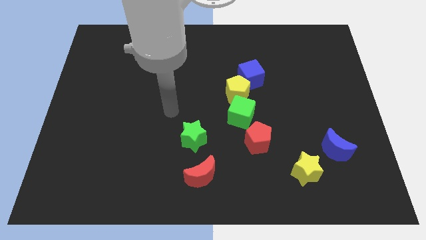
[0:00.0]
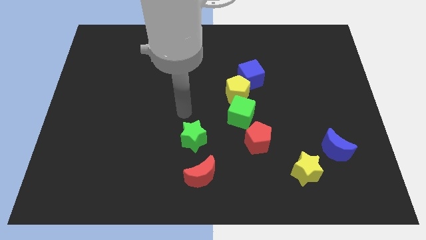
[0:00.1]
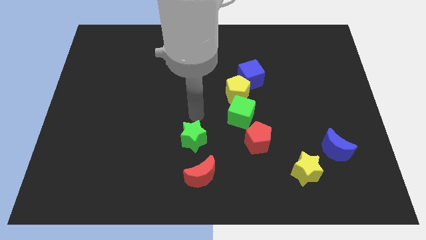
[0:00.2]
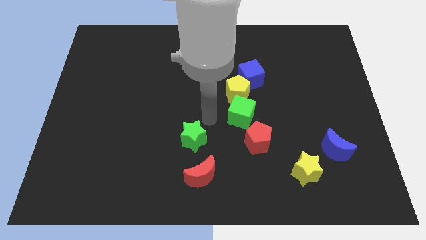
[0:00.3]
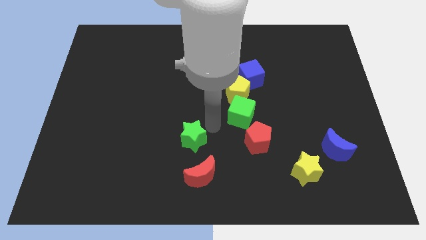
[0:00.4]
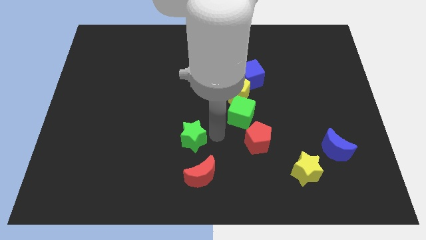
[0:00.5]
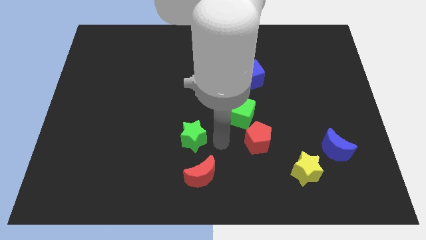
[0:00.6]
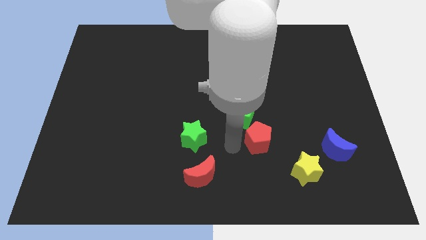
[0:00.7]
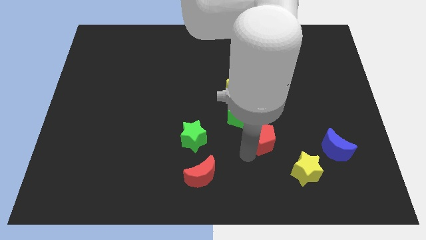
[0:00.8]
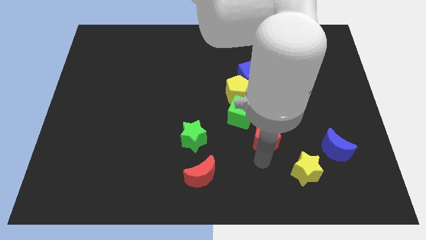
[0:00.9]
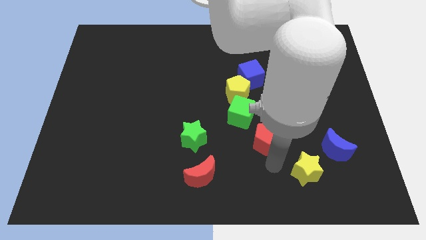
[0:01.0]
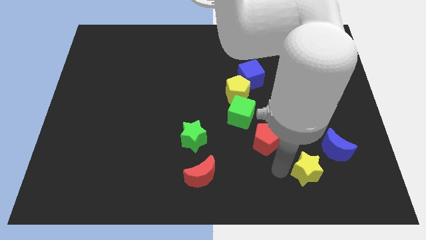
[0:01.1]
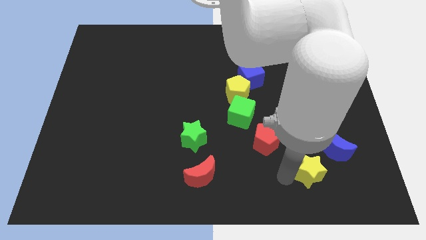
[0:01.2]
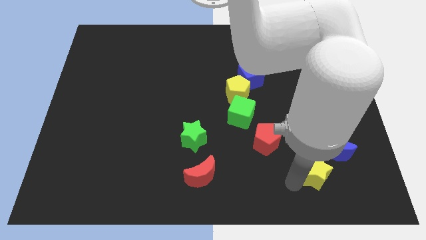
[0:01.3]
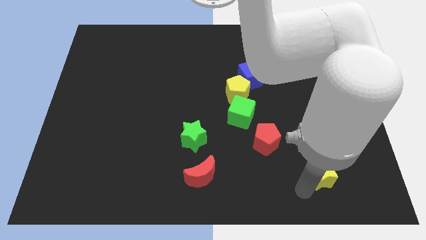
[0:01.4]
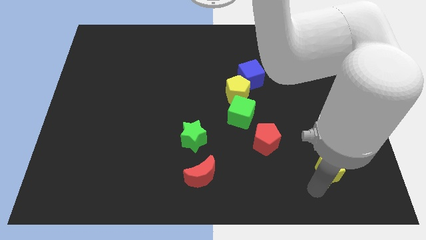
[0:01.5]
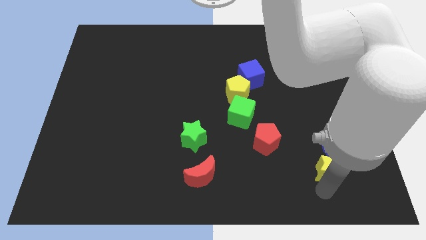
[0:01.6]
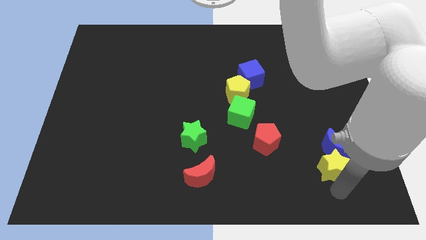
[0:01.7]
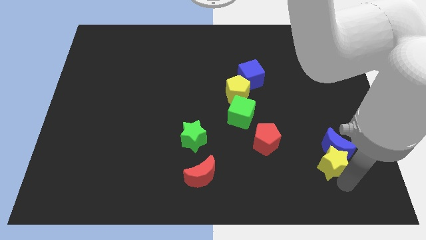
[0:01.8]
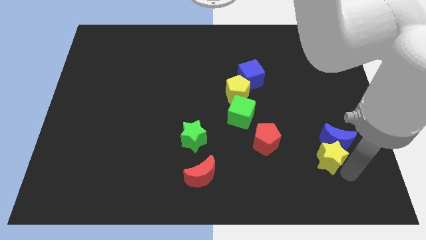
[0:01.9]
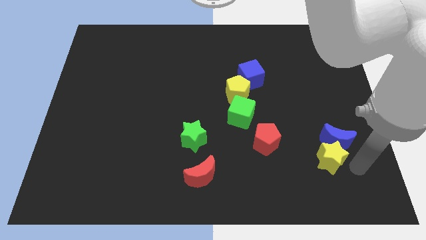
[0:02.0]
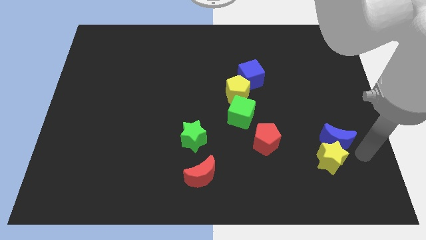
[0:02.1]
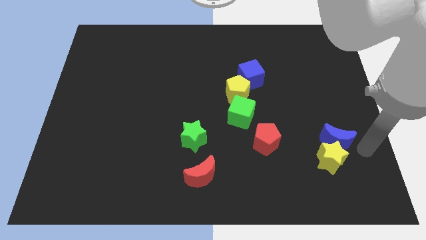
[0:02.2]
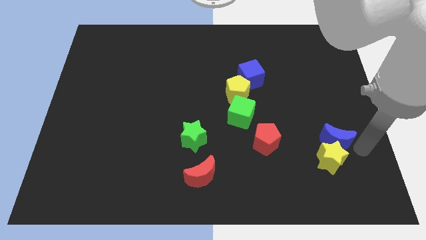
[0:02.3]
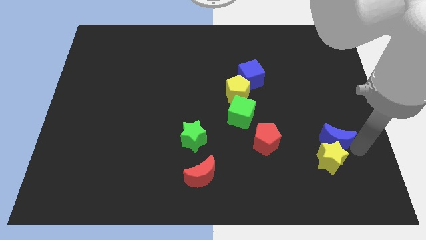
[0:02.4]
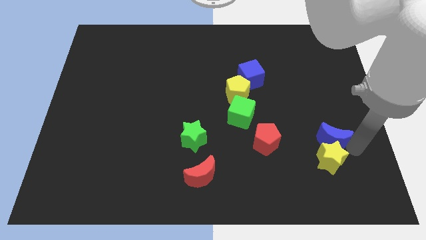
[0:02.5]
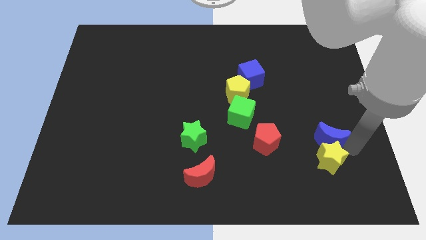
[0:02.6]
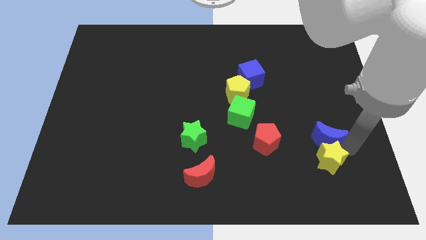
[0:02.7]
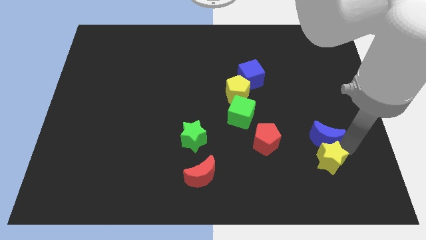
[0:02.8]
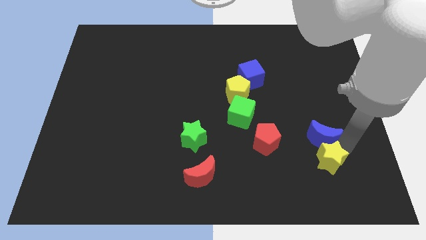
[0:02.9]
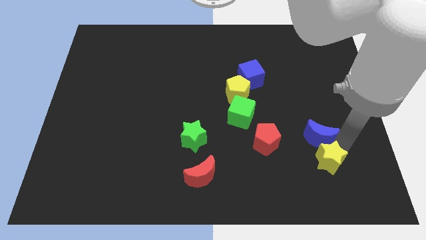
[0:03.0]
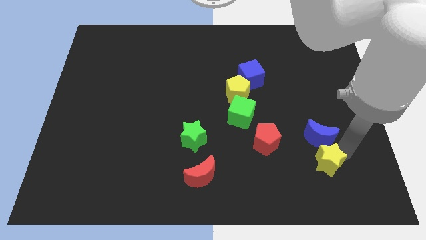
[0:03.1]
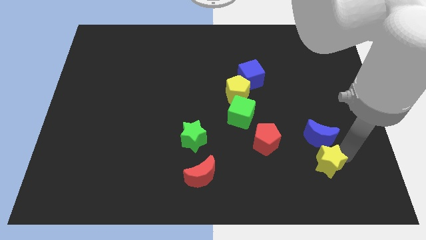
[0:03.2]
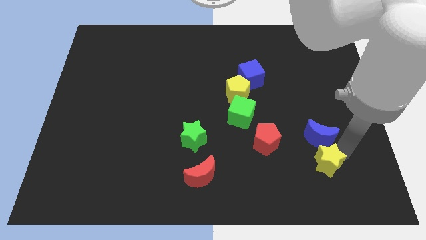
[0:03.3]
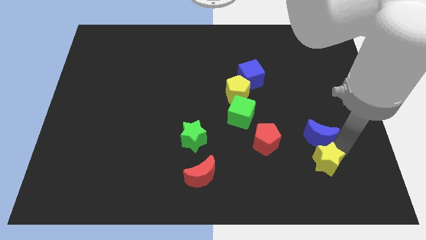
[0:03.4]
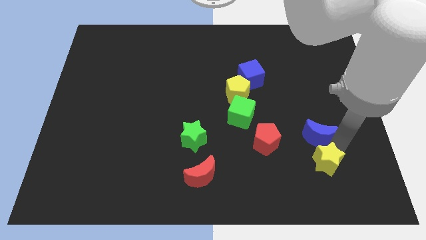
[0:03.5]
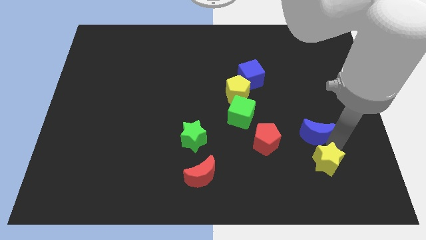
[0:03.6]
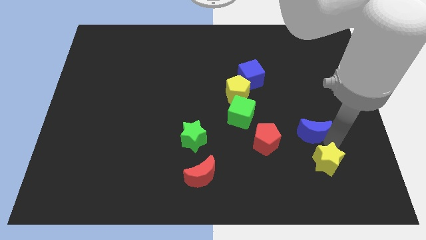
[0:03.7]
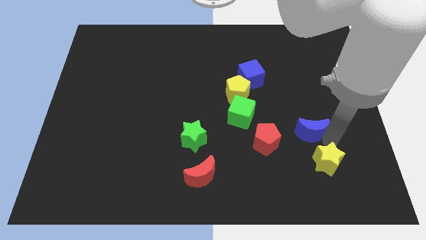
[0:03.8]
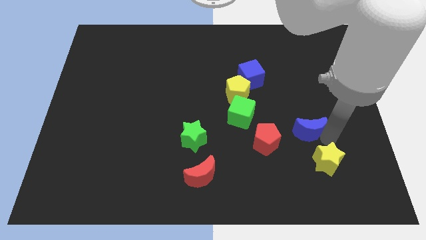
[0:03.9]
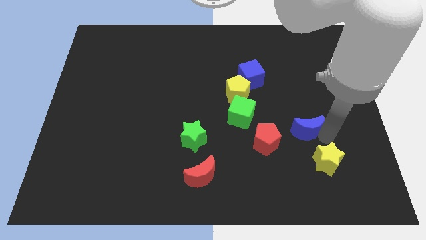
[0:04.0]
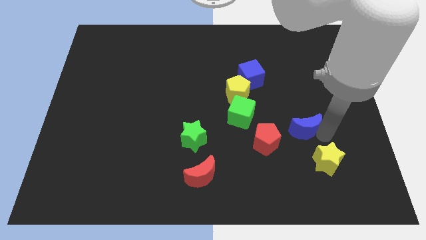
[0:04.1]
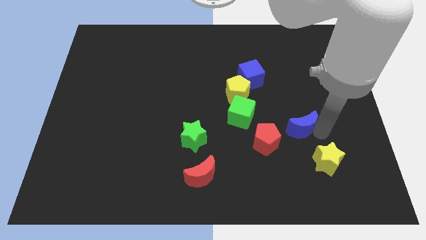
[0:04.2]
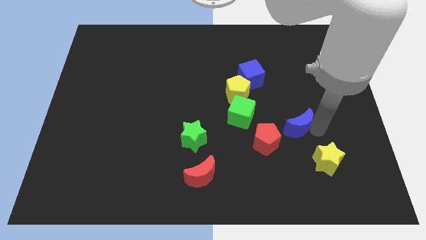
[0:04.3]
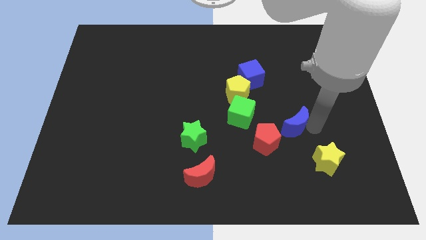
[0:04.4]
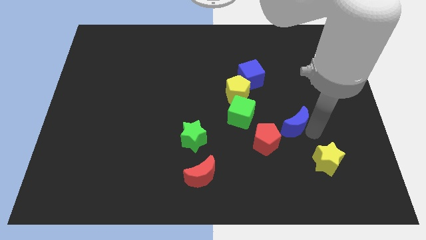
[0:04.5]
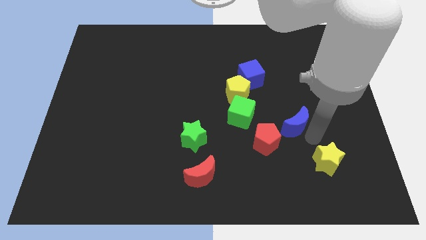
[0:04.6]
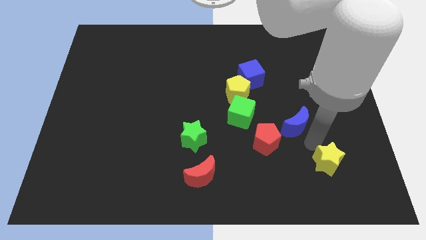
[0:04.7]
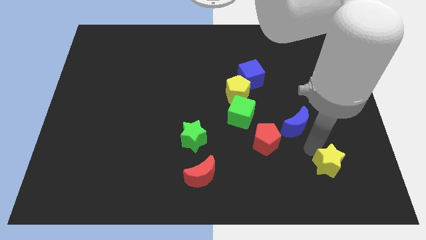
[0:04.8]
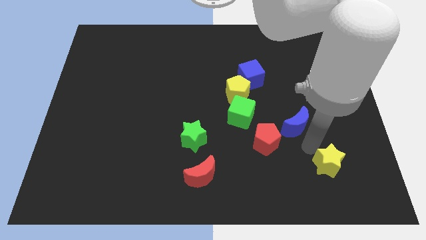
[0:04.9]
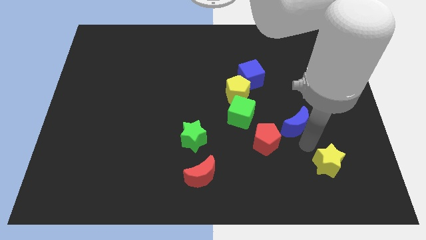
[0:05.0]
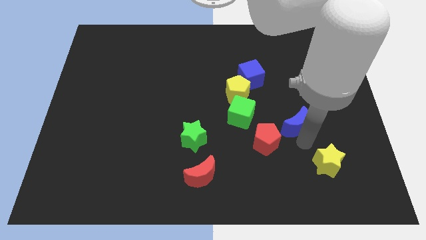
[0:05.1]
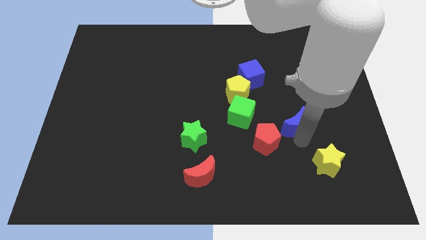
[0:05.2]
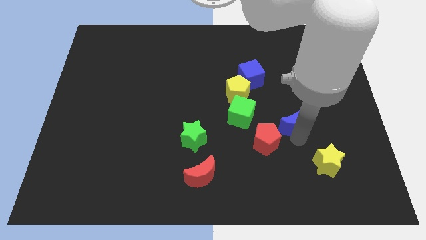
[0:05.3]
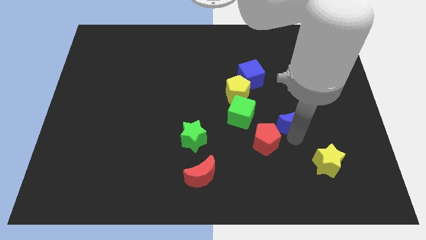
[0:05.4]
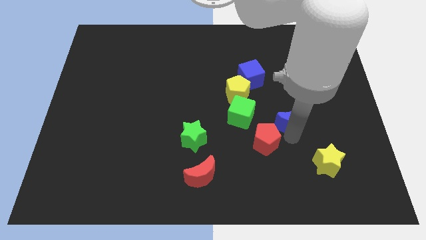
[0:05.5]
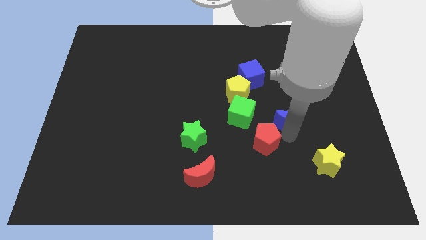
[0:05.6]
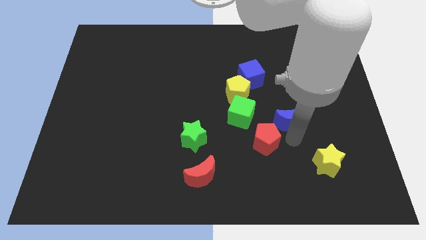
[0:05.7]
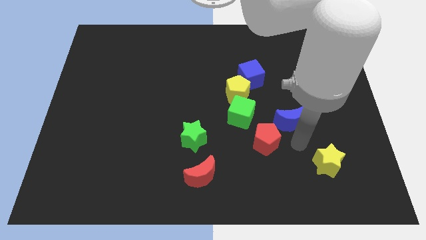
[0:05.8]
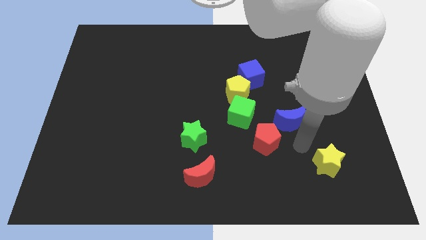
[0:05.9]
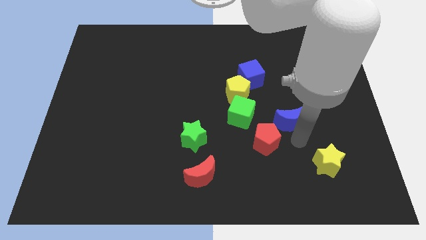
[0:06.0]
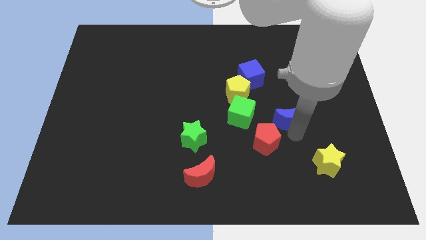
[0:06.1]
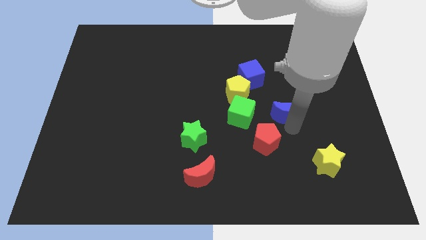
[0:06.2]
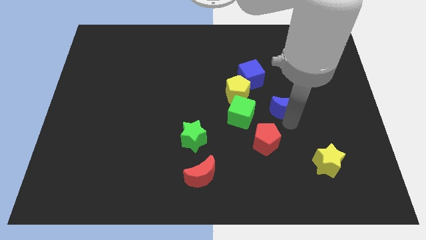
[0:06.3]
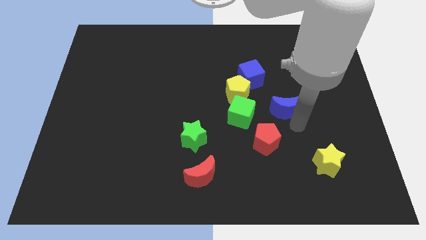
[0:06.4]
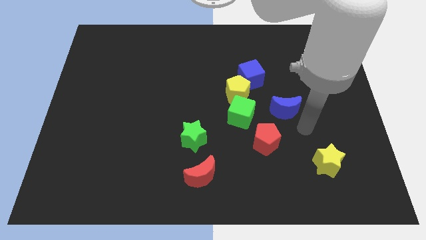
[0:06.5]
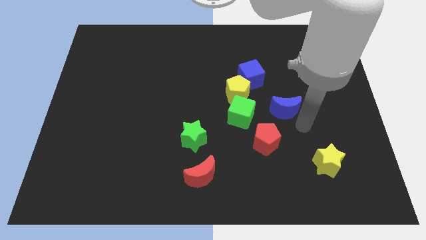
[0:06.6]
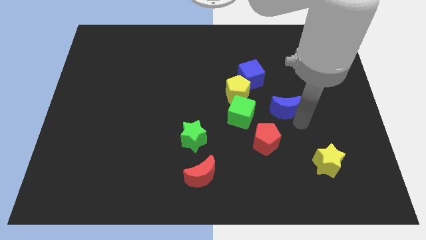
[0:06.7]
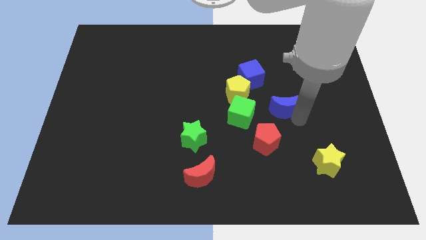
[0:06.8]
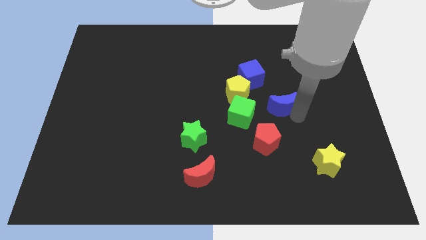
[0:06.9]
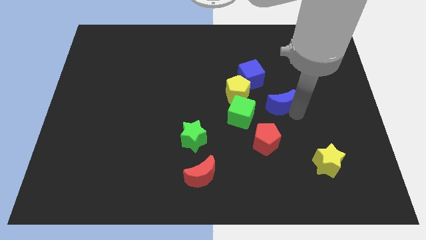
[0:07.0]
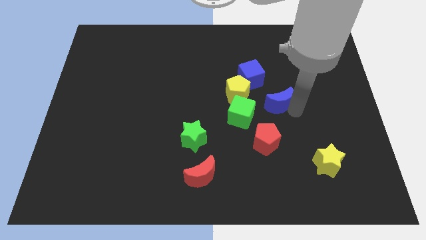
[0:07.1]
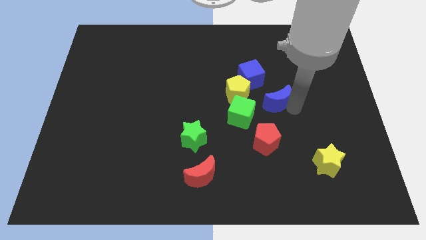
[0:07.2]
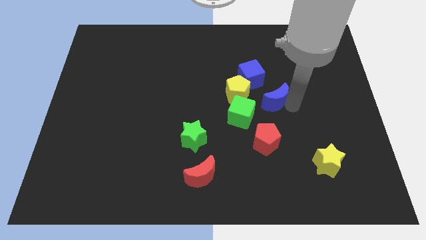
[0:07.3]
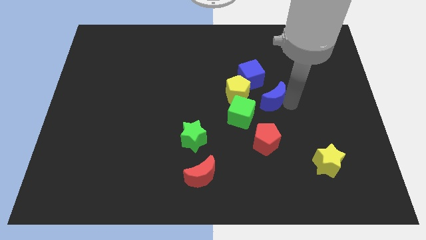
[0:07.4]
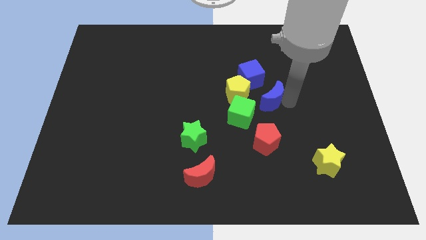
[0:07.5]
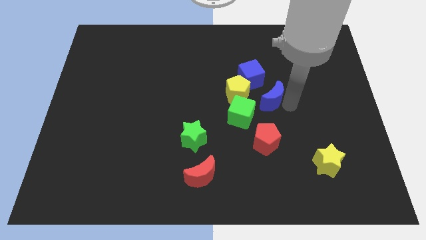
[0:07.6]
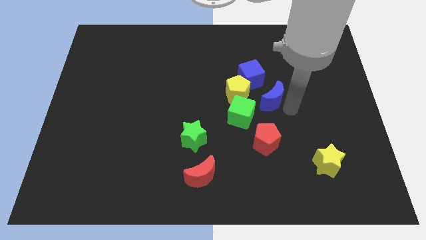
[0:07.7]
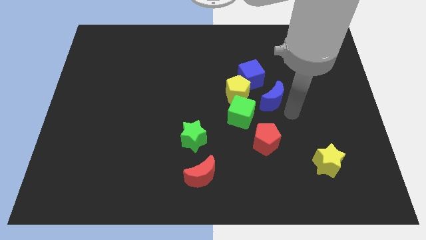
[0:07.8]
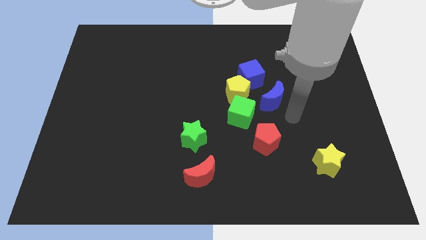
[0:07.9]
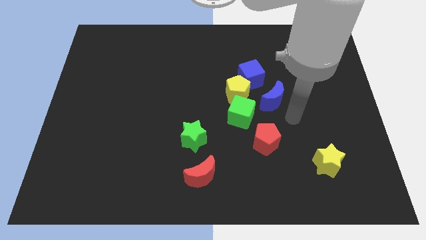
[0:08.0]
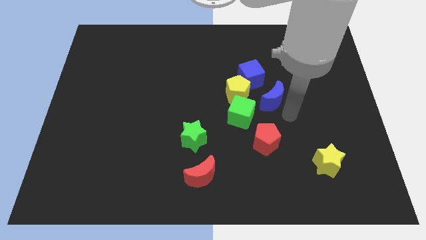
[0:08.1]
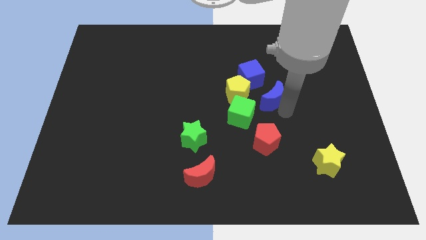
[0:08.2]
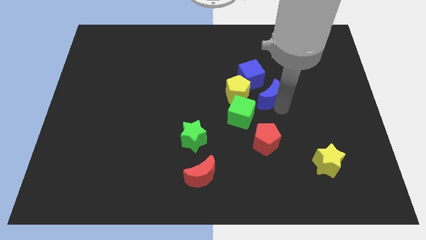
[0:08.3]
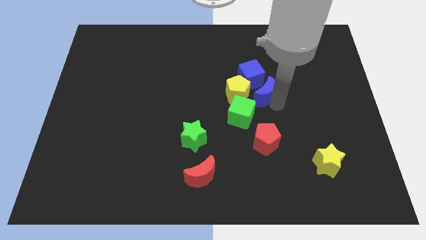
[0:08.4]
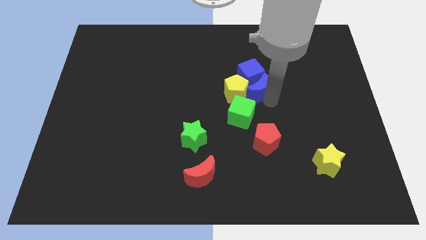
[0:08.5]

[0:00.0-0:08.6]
put the blue moon close to the blue cube
